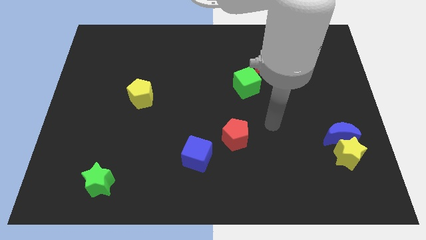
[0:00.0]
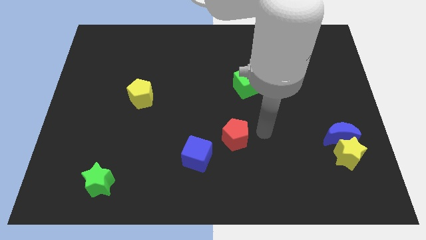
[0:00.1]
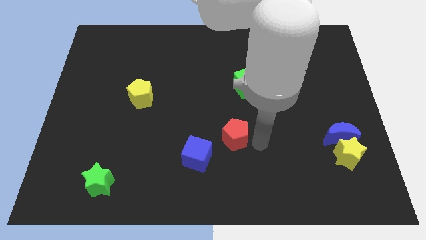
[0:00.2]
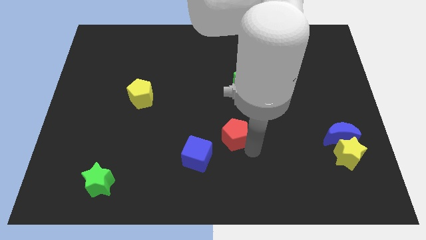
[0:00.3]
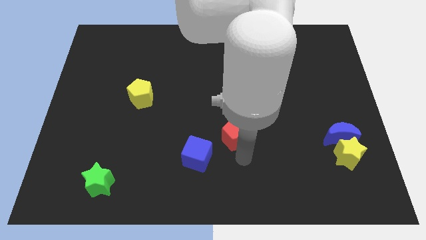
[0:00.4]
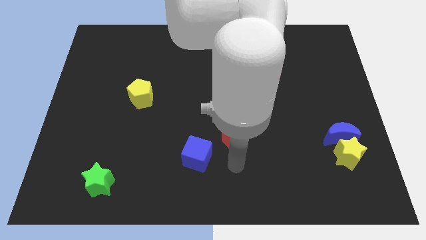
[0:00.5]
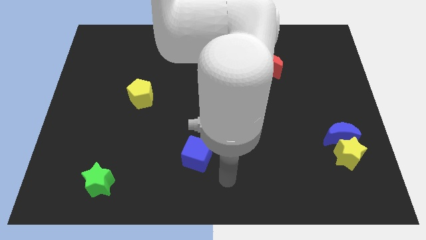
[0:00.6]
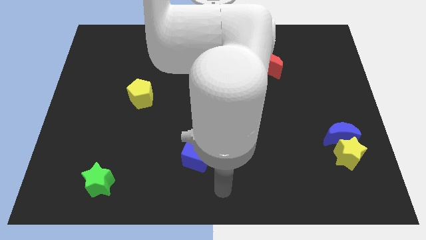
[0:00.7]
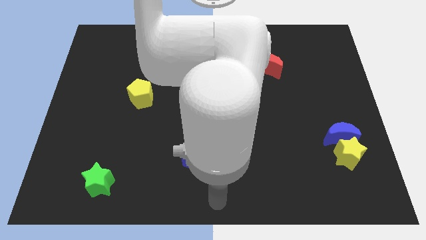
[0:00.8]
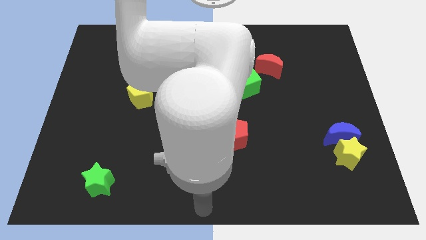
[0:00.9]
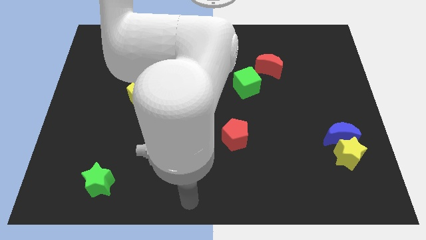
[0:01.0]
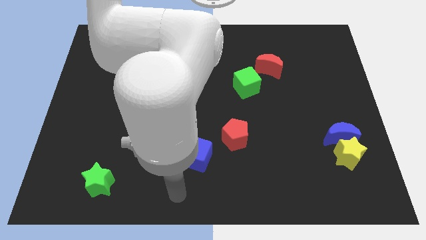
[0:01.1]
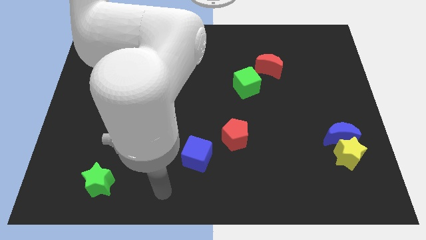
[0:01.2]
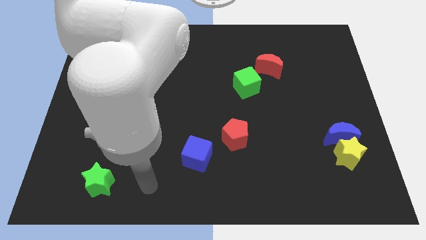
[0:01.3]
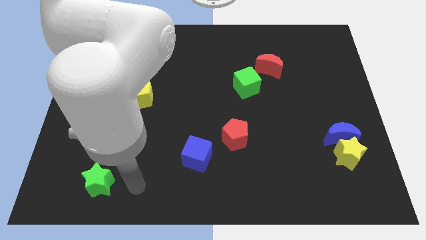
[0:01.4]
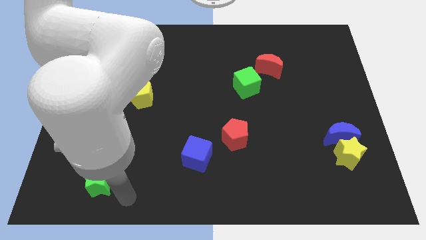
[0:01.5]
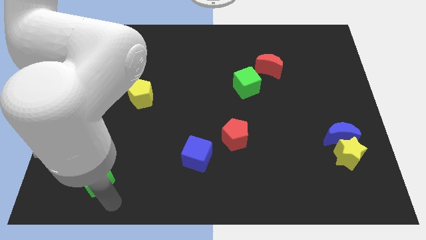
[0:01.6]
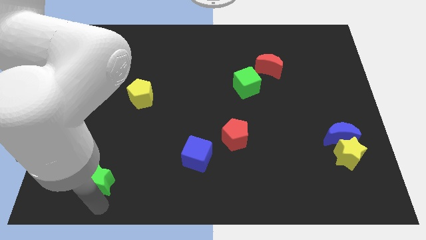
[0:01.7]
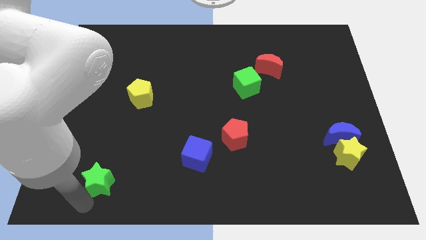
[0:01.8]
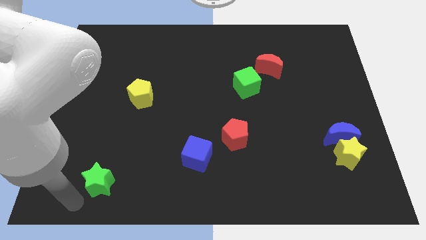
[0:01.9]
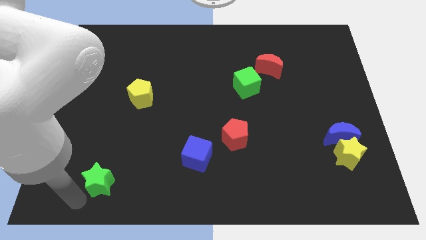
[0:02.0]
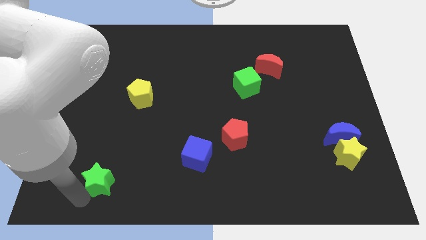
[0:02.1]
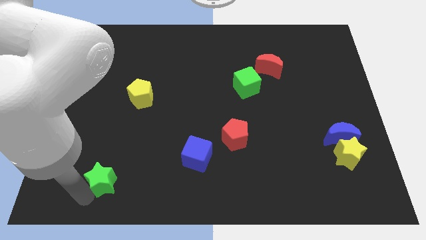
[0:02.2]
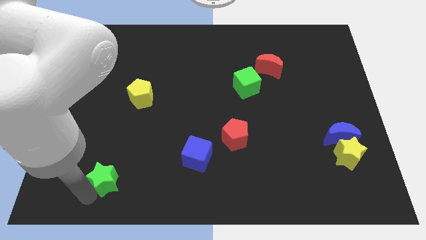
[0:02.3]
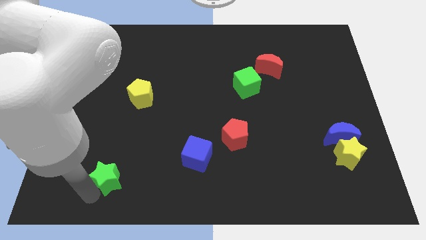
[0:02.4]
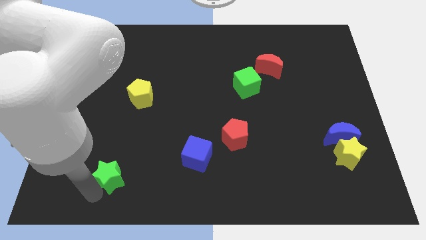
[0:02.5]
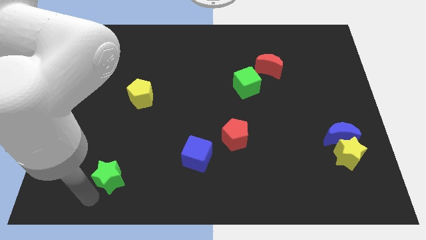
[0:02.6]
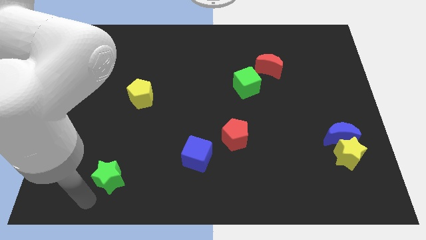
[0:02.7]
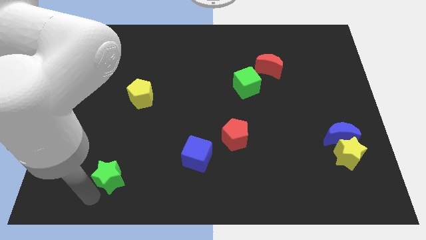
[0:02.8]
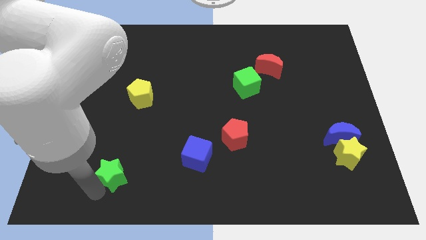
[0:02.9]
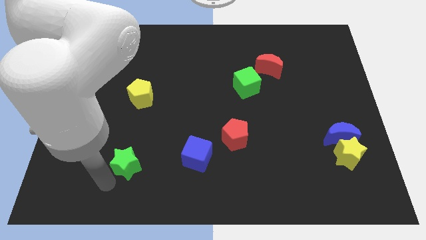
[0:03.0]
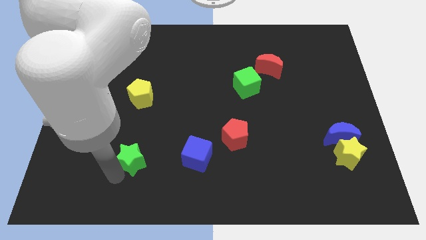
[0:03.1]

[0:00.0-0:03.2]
move the green star a little up and then to the right

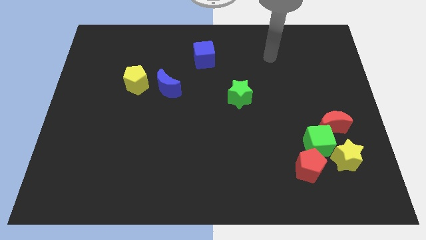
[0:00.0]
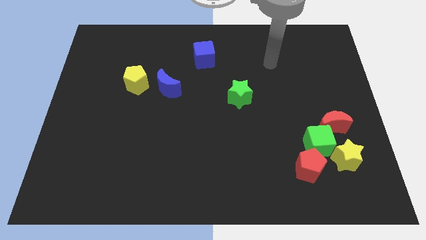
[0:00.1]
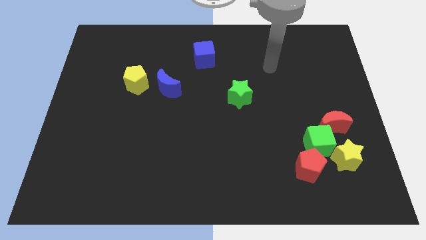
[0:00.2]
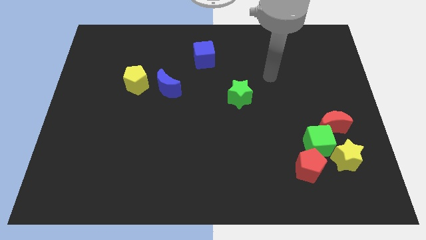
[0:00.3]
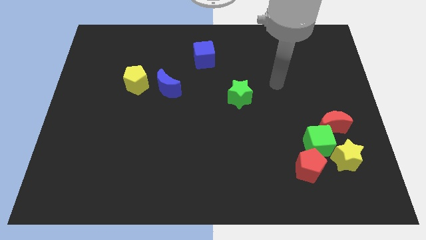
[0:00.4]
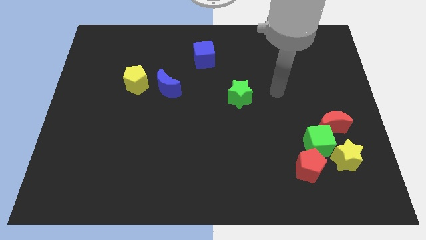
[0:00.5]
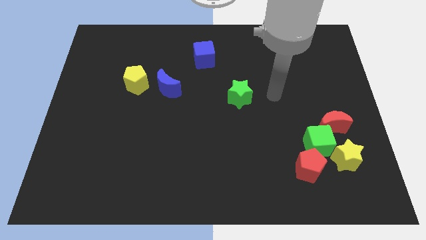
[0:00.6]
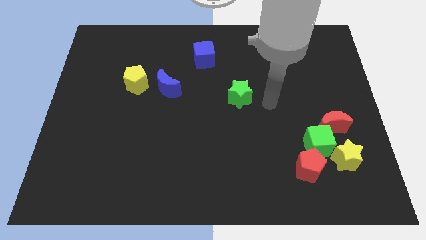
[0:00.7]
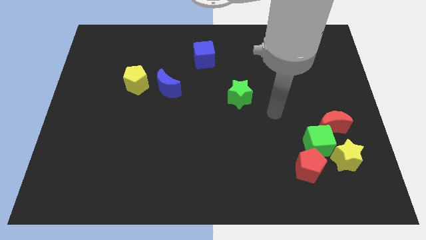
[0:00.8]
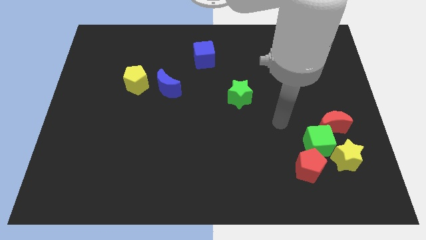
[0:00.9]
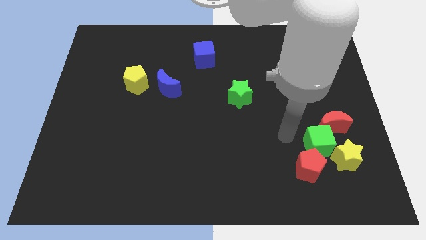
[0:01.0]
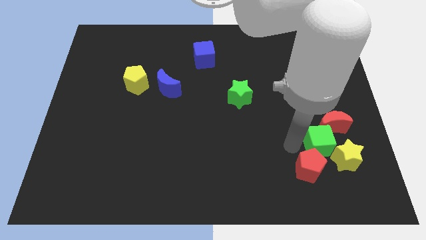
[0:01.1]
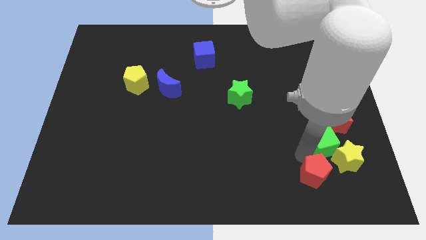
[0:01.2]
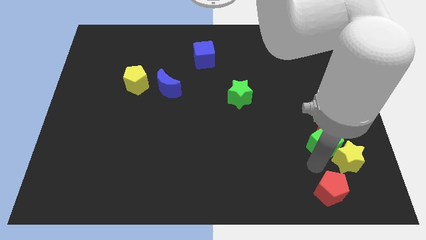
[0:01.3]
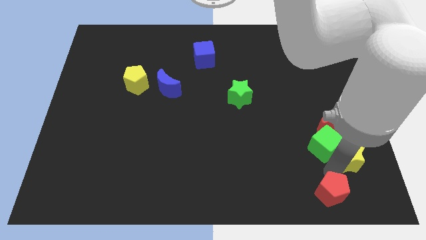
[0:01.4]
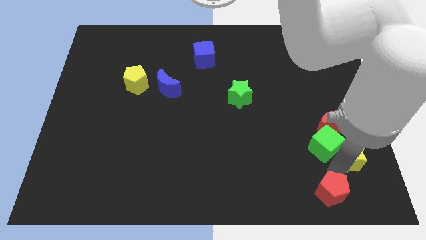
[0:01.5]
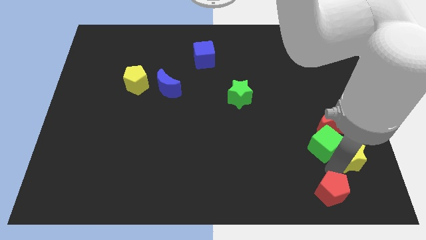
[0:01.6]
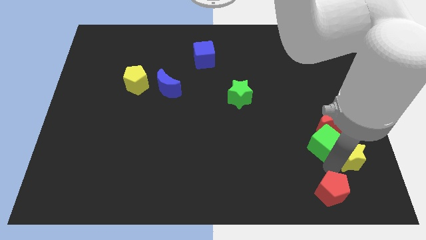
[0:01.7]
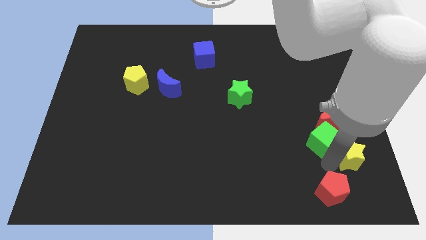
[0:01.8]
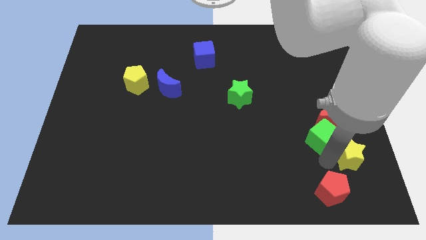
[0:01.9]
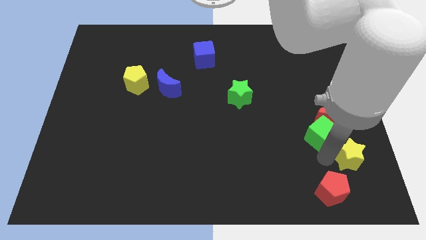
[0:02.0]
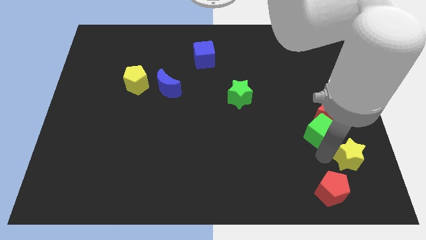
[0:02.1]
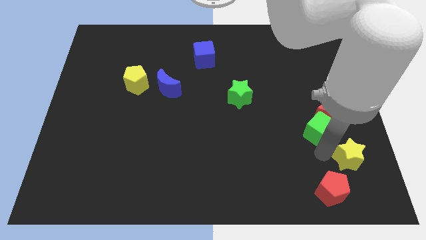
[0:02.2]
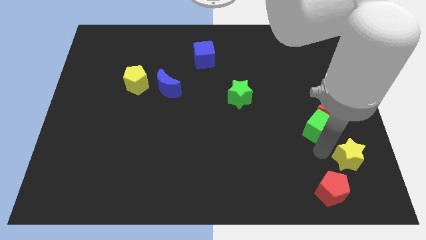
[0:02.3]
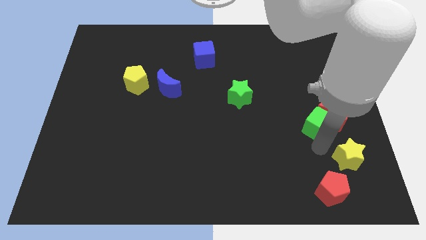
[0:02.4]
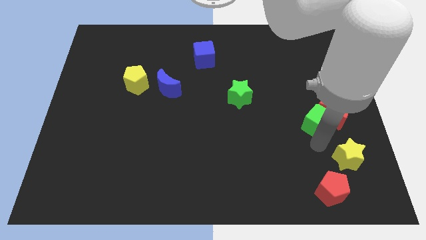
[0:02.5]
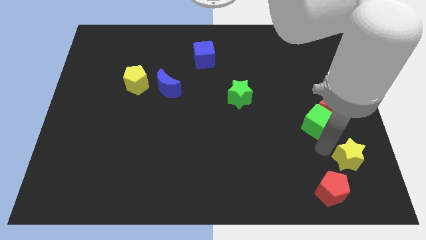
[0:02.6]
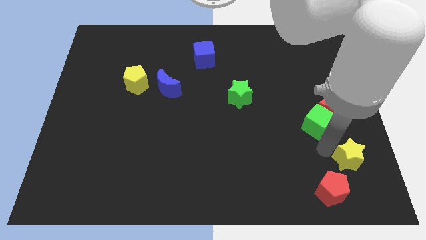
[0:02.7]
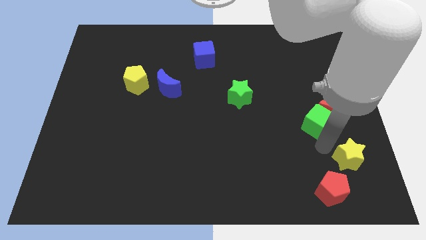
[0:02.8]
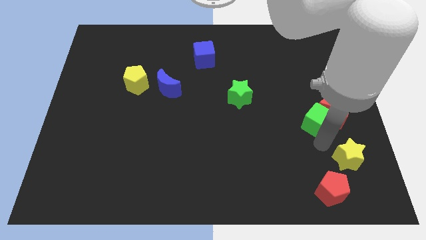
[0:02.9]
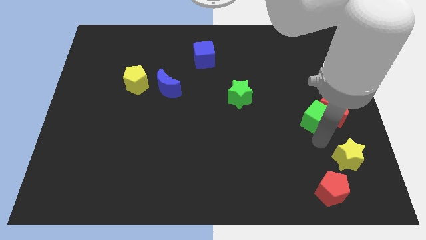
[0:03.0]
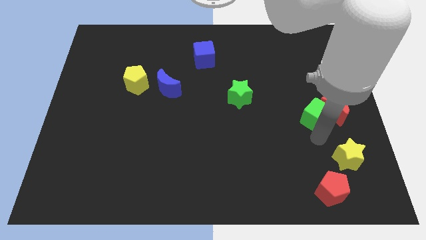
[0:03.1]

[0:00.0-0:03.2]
slide the green cube up somewhat

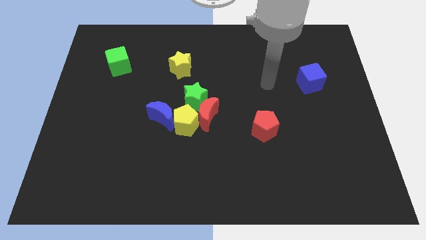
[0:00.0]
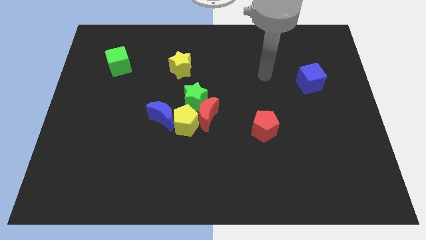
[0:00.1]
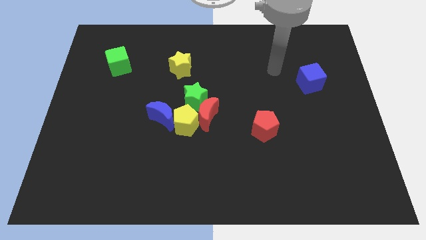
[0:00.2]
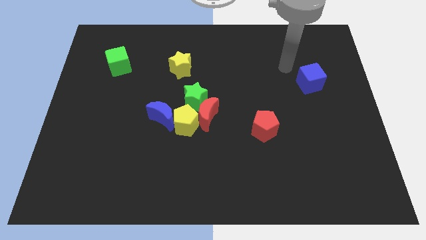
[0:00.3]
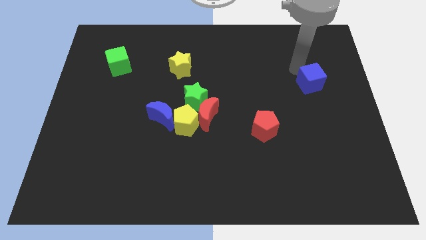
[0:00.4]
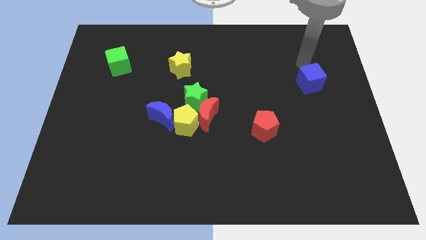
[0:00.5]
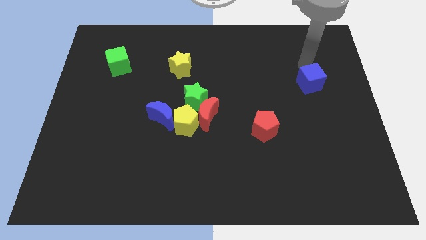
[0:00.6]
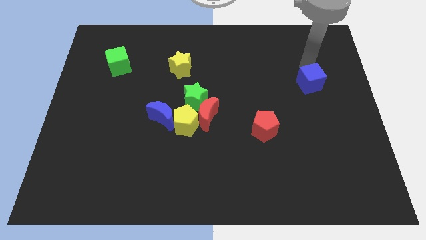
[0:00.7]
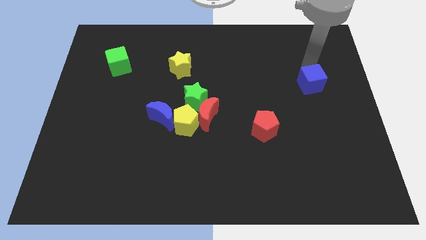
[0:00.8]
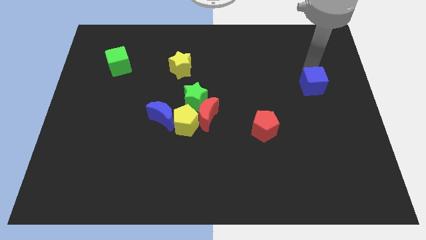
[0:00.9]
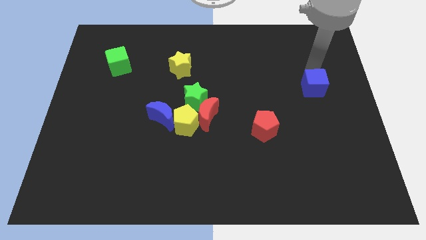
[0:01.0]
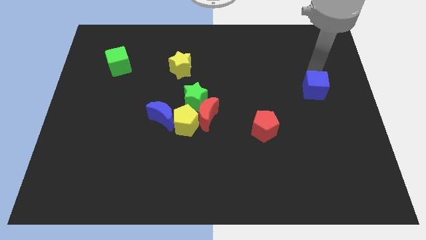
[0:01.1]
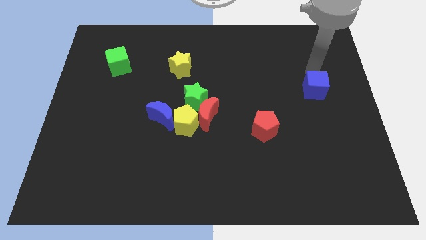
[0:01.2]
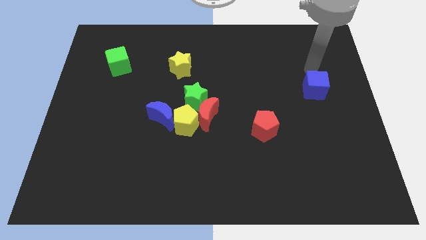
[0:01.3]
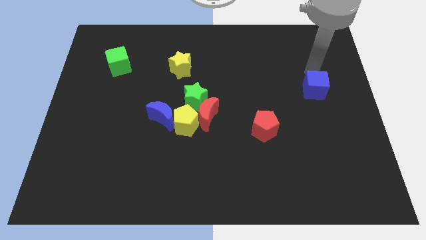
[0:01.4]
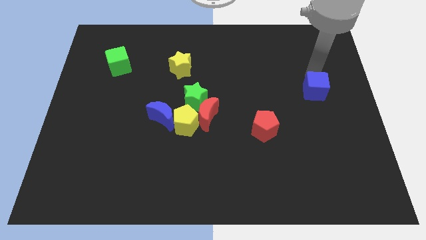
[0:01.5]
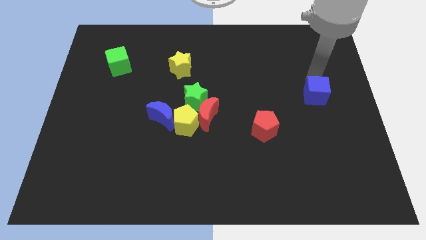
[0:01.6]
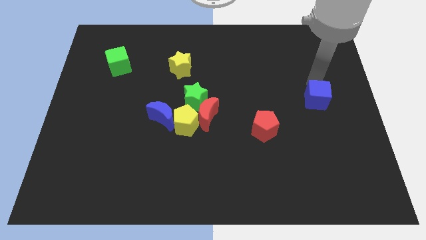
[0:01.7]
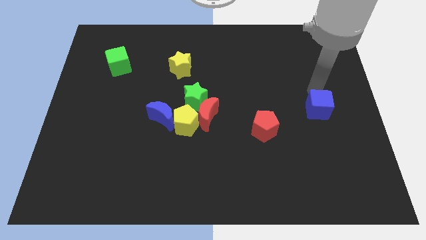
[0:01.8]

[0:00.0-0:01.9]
move the blue cube down a bit
